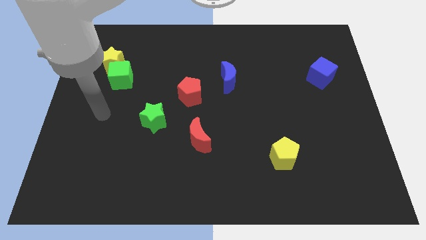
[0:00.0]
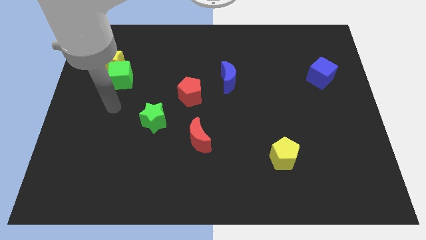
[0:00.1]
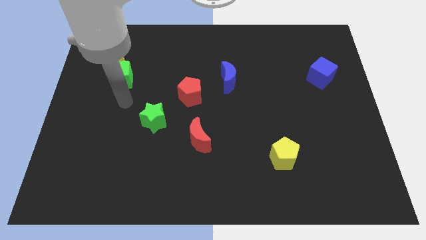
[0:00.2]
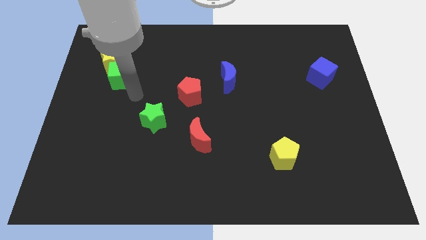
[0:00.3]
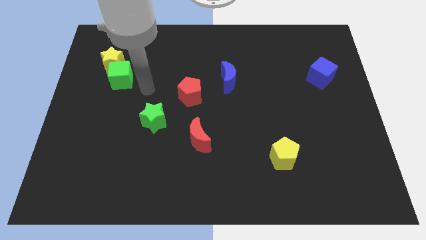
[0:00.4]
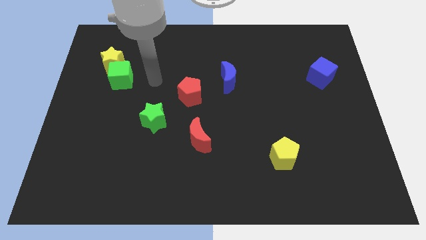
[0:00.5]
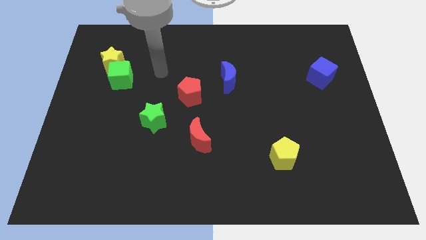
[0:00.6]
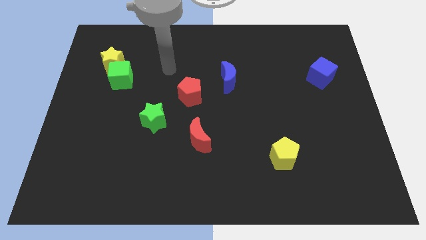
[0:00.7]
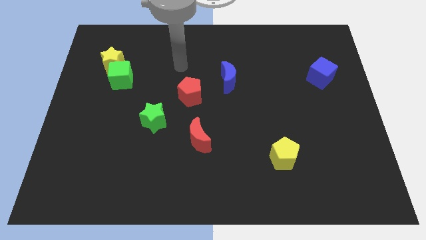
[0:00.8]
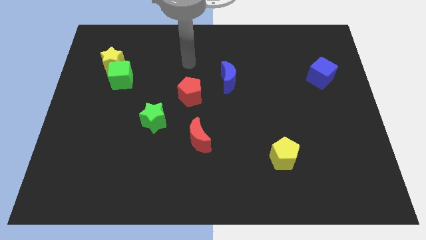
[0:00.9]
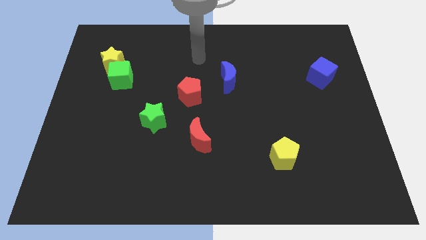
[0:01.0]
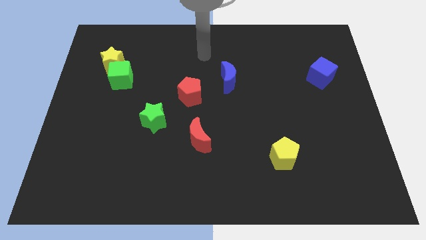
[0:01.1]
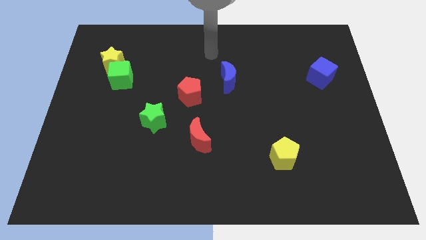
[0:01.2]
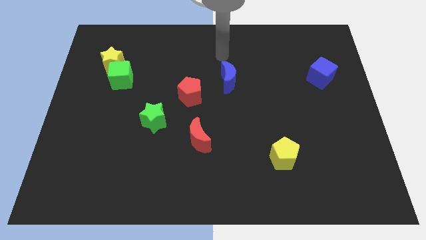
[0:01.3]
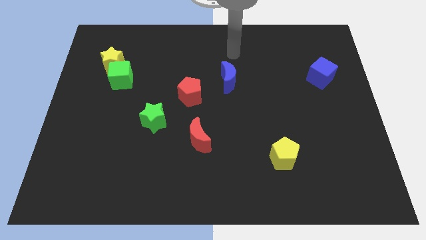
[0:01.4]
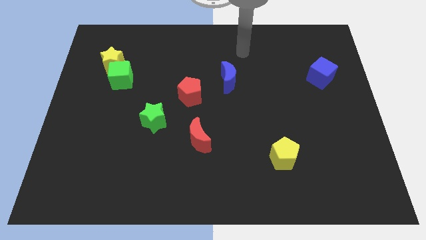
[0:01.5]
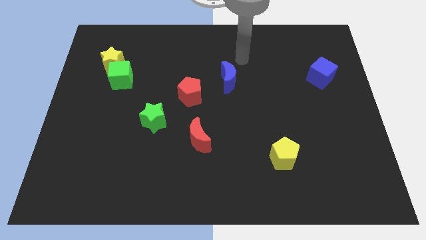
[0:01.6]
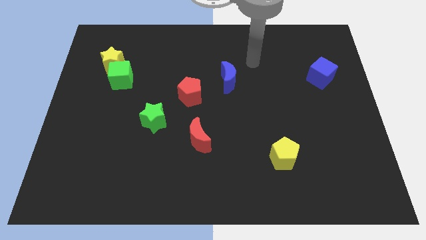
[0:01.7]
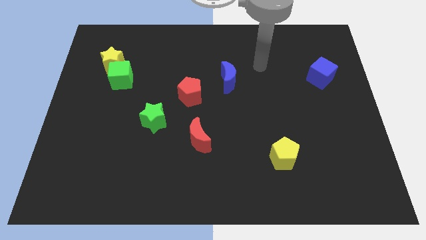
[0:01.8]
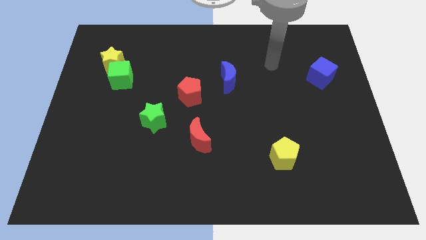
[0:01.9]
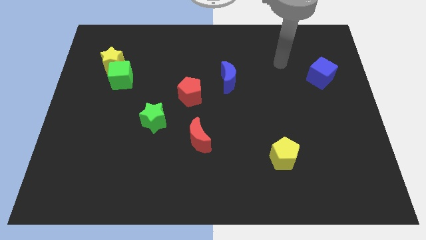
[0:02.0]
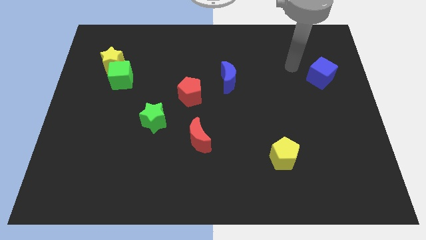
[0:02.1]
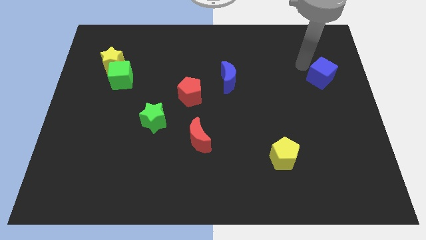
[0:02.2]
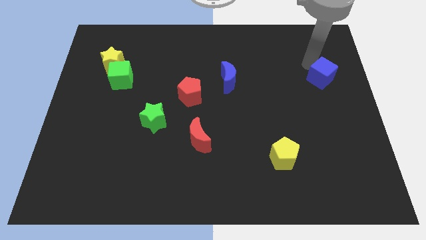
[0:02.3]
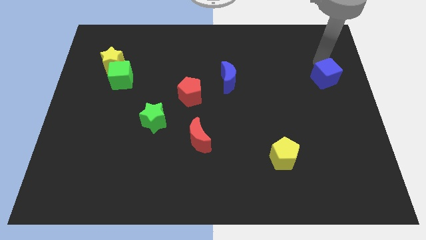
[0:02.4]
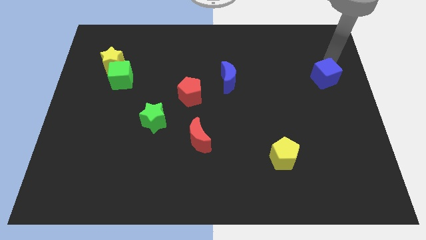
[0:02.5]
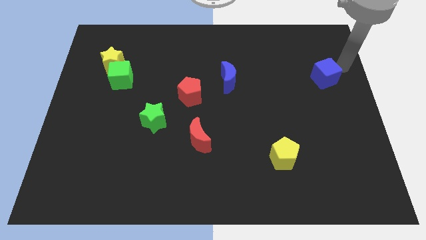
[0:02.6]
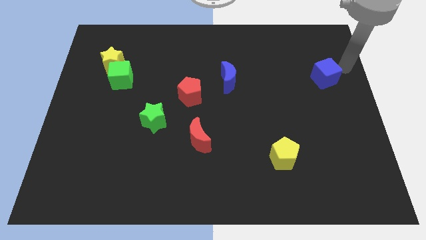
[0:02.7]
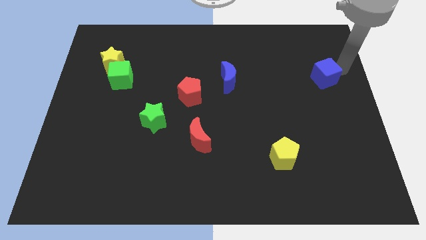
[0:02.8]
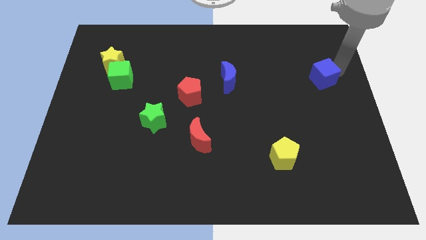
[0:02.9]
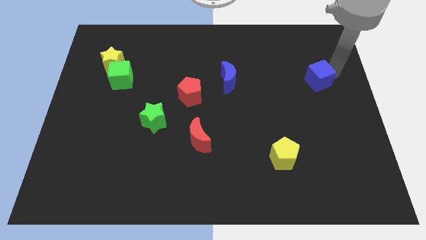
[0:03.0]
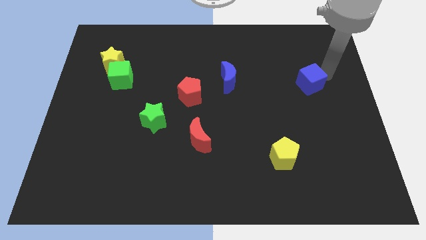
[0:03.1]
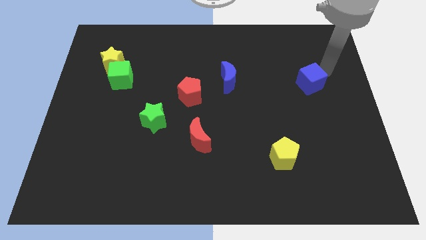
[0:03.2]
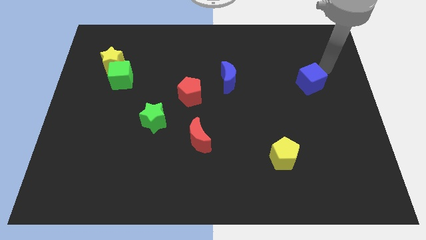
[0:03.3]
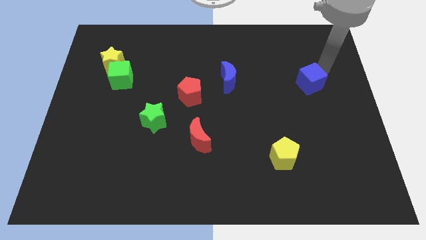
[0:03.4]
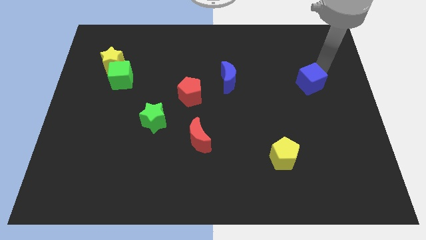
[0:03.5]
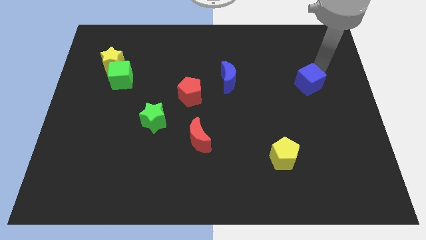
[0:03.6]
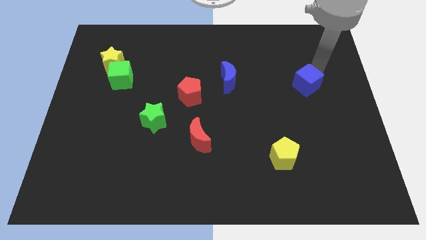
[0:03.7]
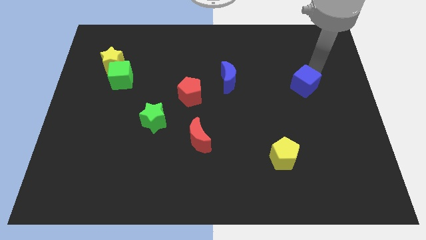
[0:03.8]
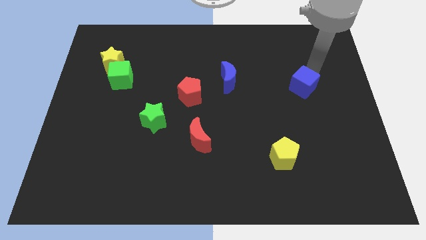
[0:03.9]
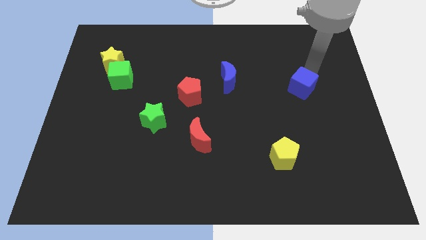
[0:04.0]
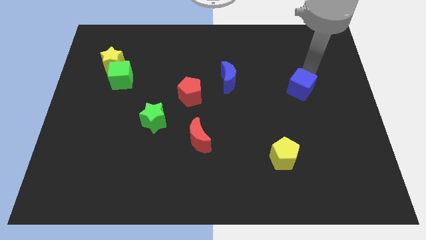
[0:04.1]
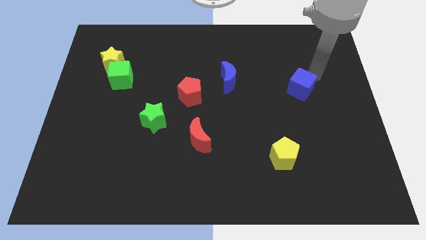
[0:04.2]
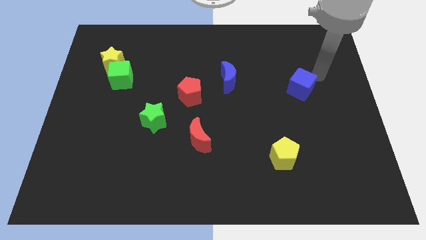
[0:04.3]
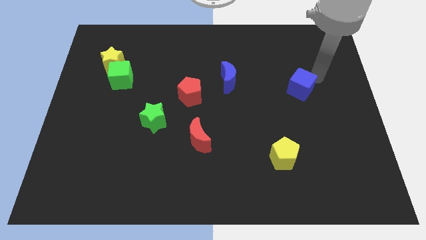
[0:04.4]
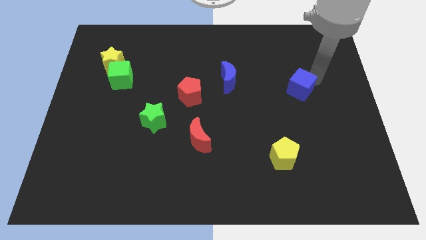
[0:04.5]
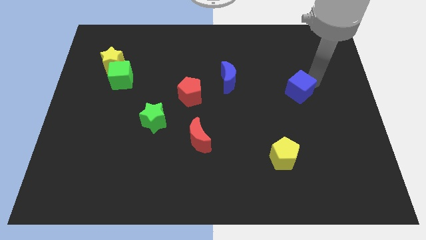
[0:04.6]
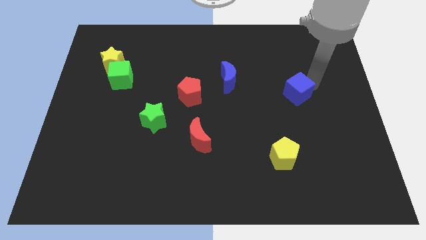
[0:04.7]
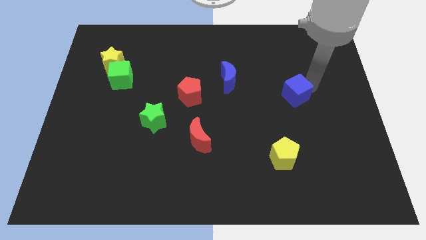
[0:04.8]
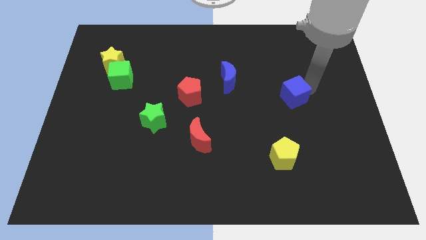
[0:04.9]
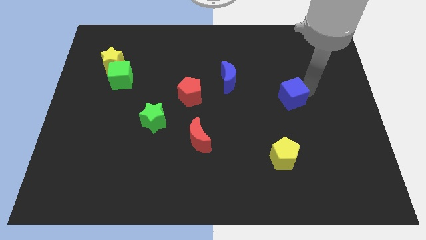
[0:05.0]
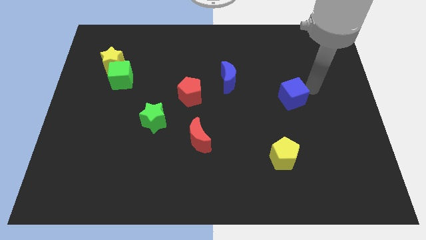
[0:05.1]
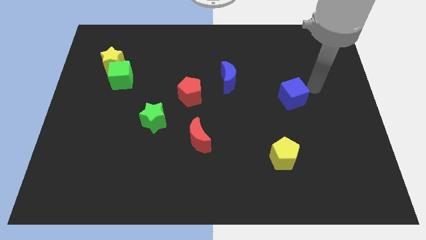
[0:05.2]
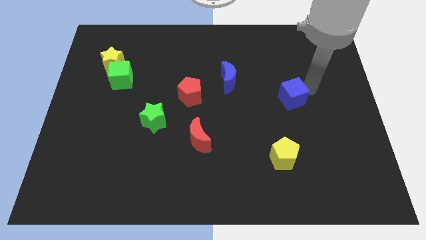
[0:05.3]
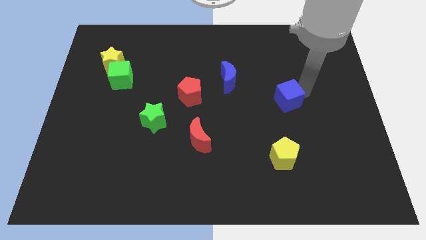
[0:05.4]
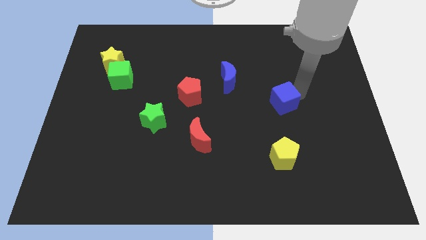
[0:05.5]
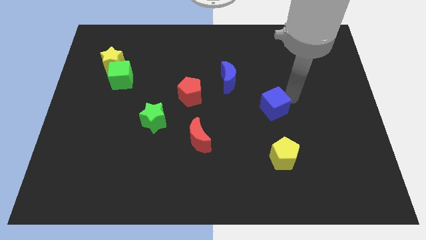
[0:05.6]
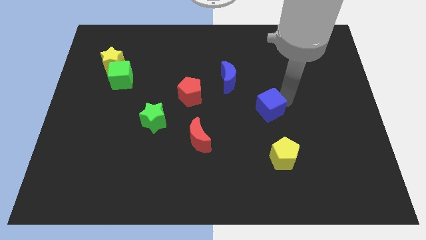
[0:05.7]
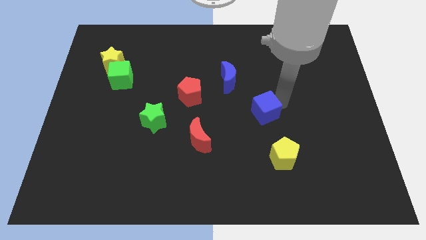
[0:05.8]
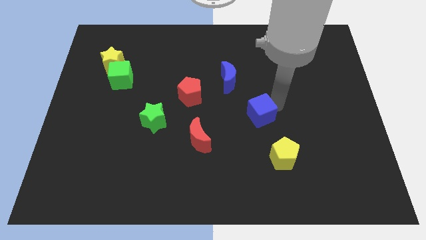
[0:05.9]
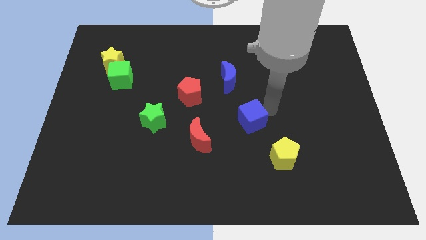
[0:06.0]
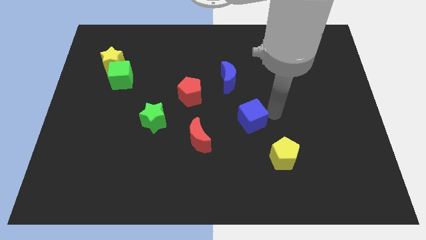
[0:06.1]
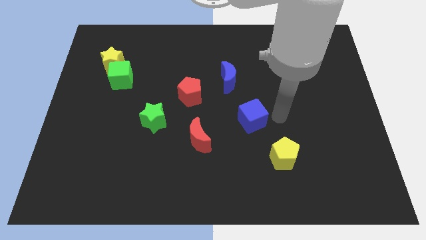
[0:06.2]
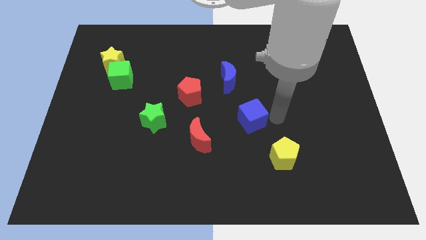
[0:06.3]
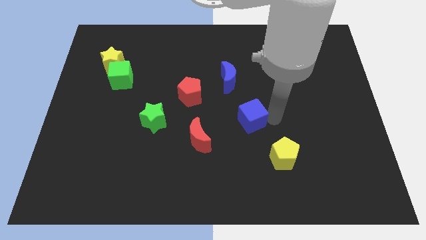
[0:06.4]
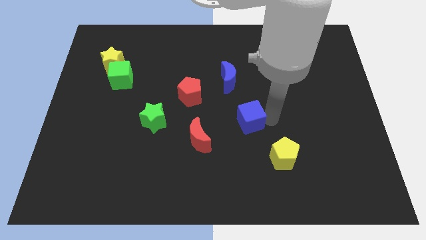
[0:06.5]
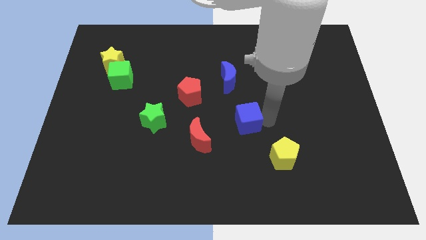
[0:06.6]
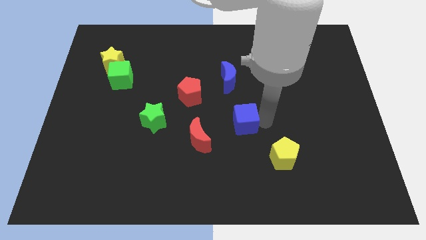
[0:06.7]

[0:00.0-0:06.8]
put the blue cube to the top right side of the red moon
